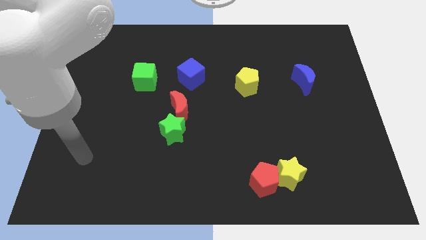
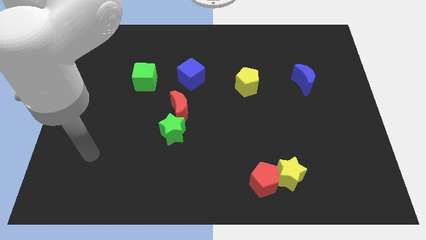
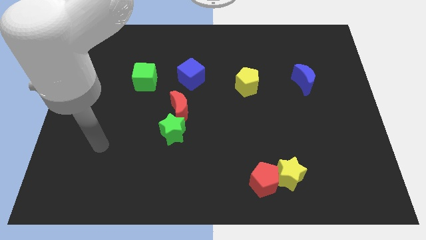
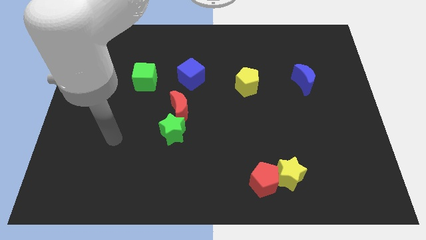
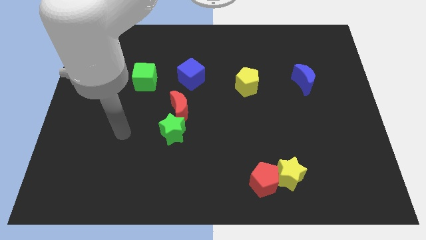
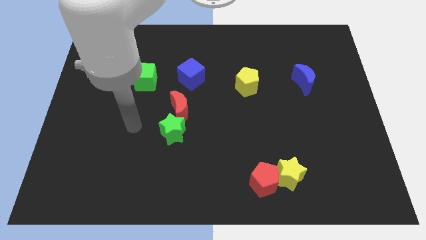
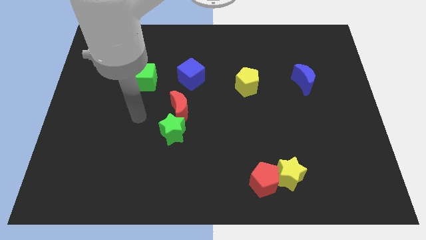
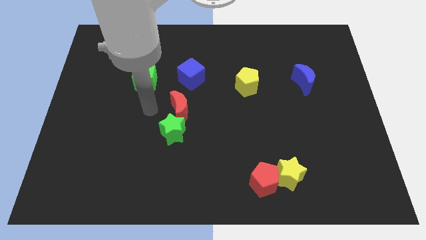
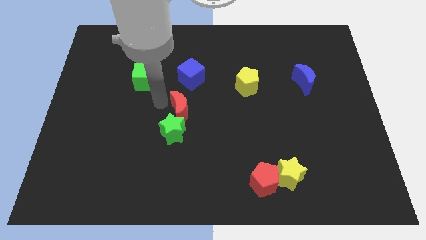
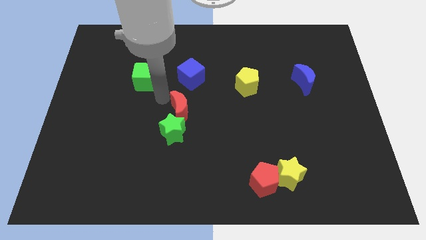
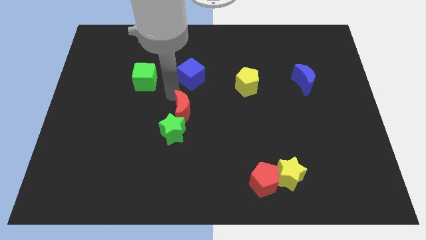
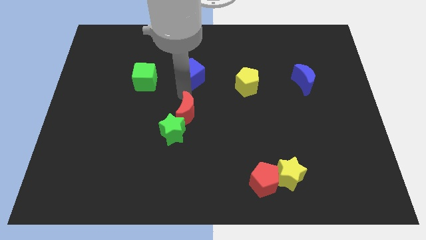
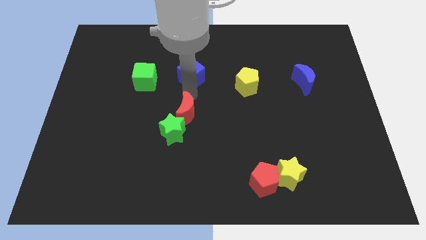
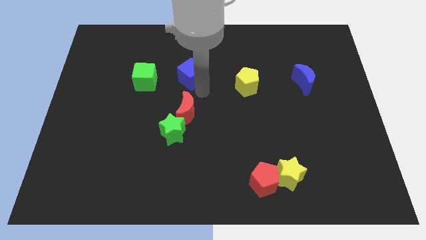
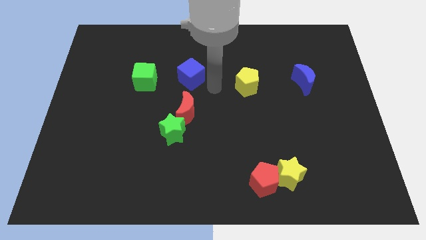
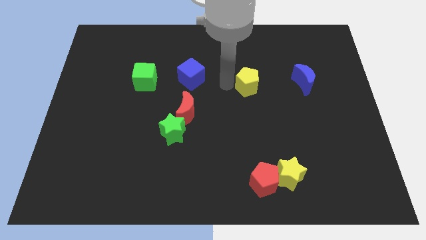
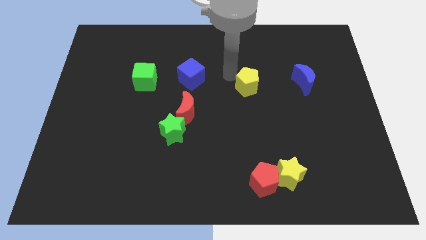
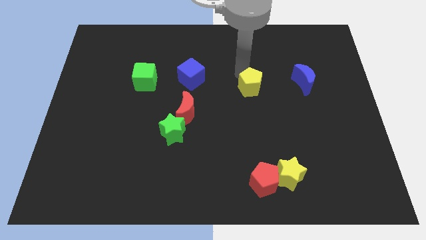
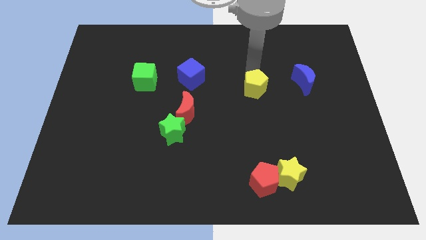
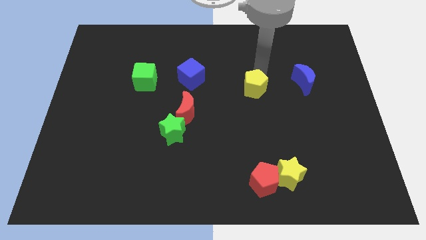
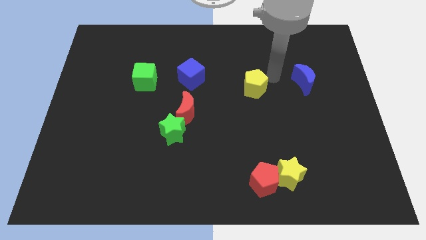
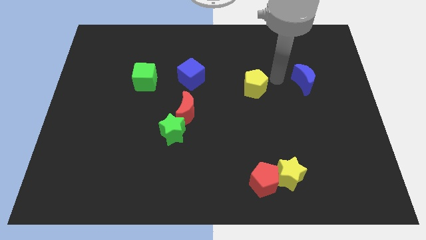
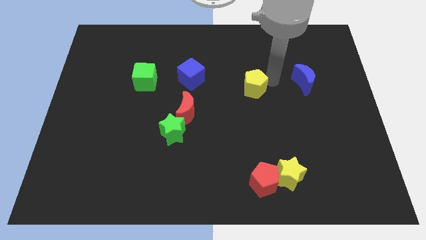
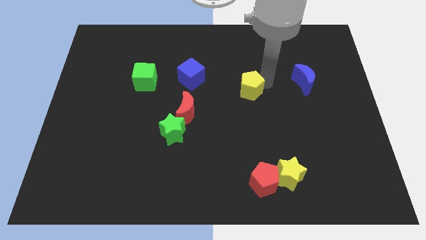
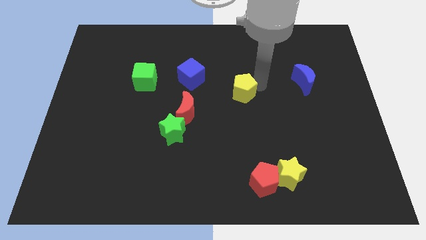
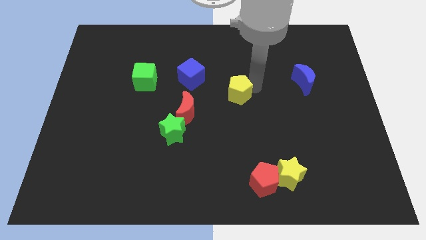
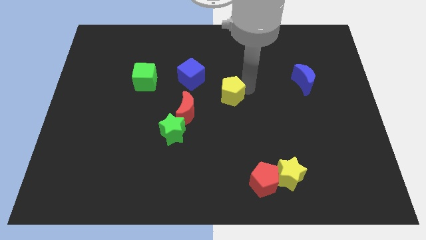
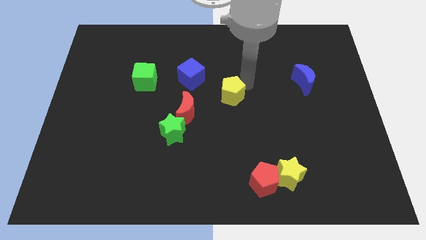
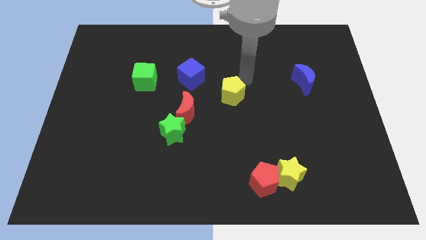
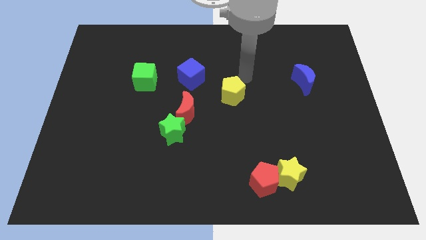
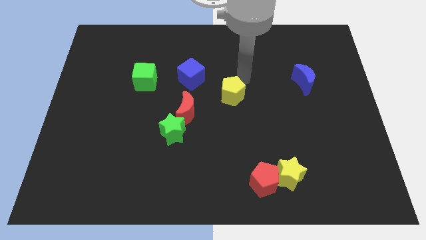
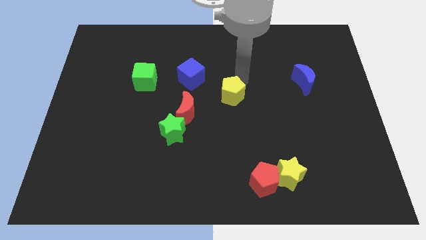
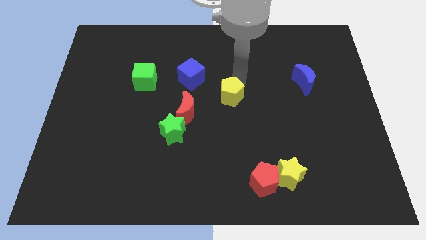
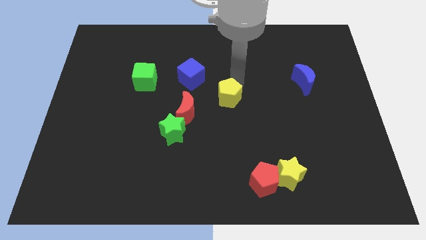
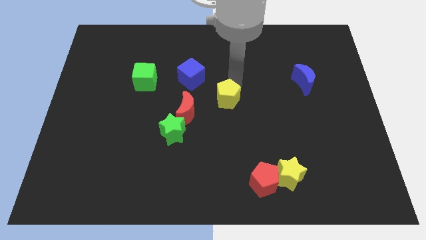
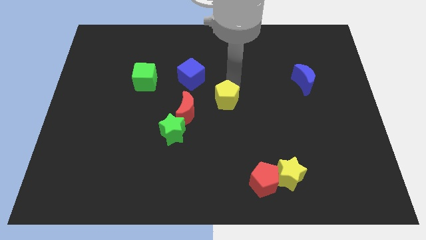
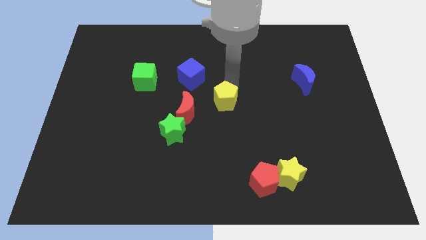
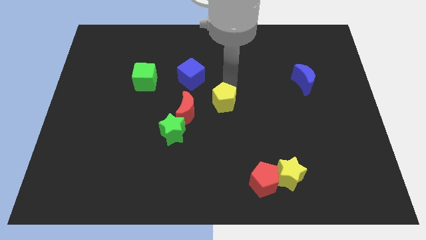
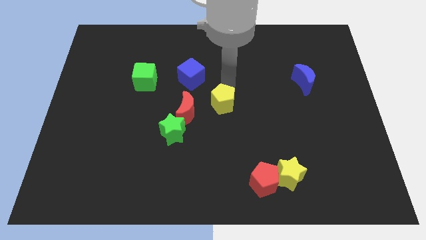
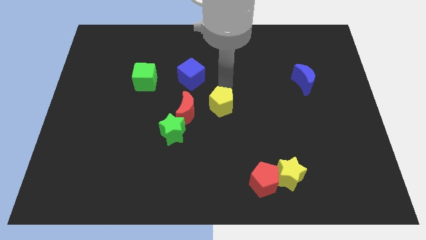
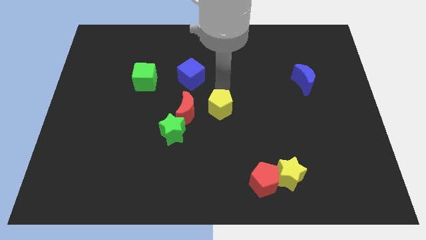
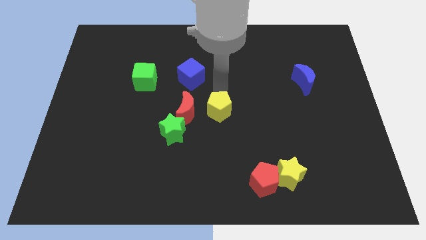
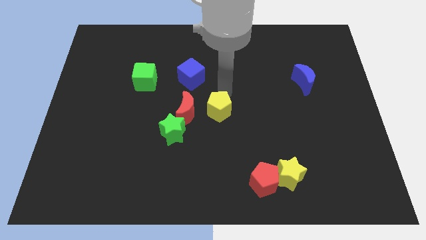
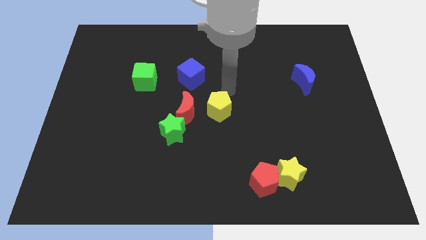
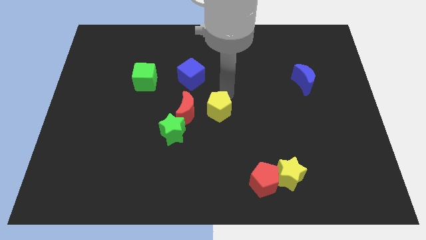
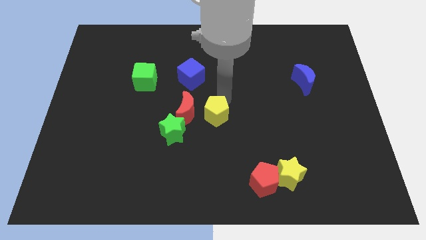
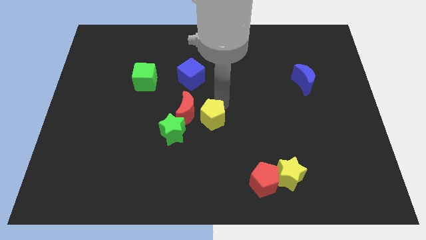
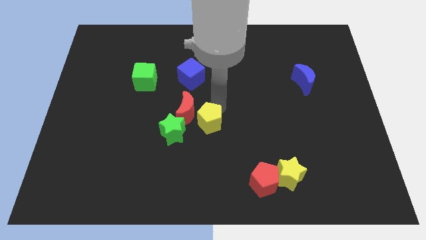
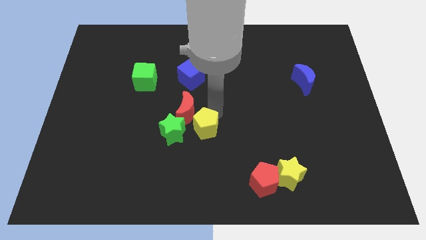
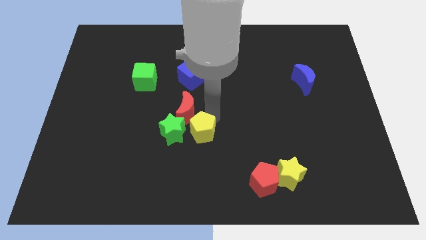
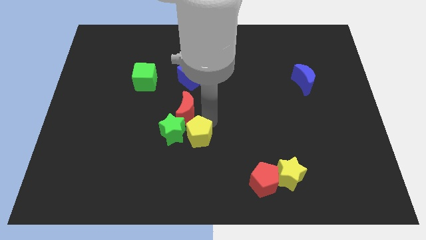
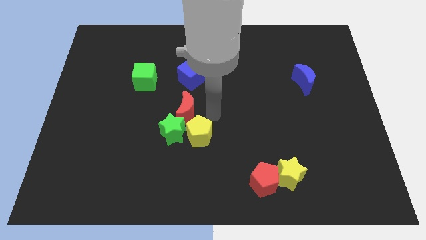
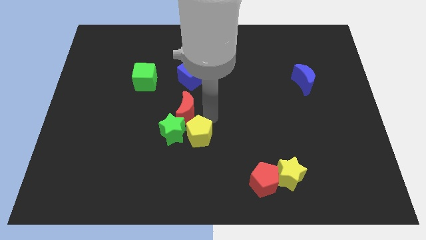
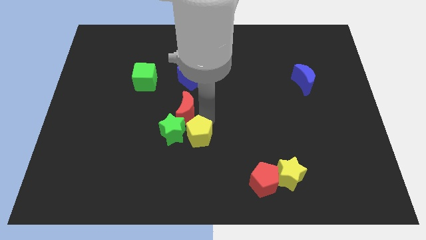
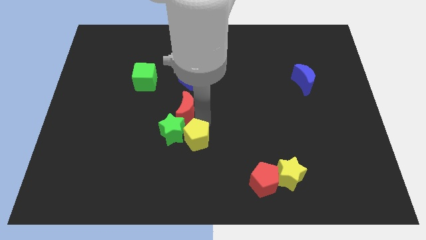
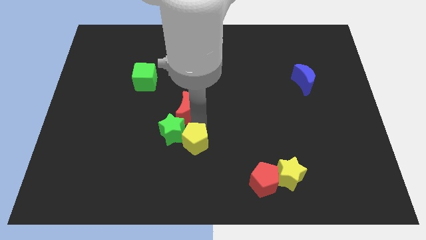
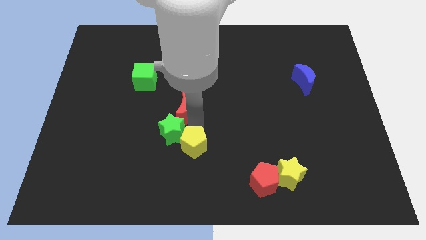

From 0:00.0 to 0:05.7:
move the yellow pentagon below the green star

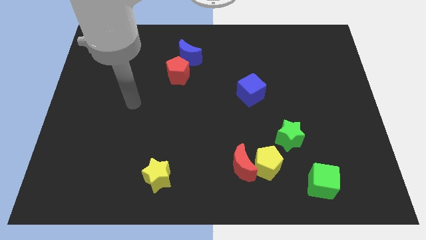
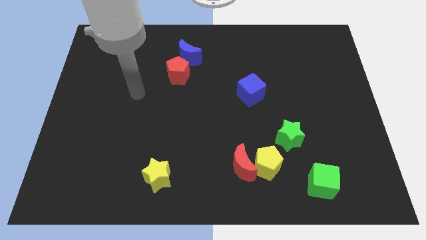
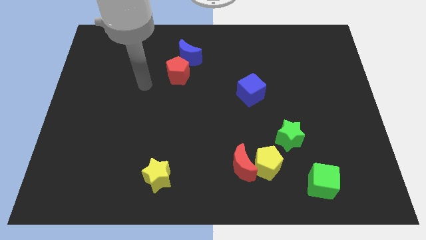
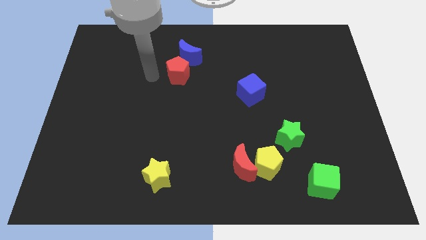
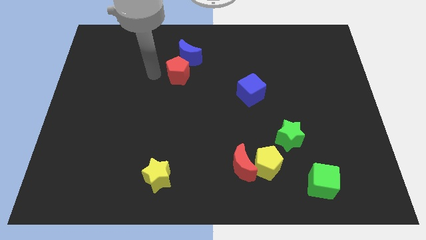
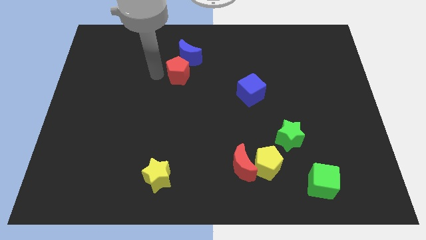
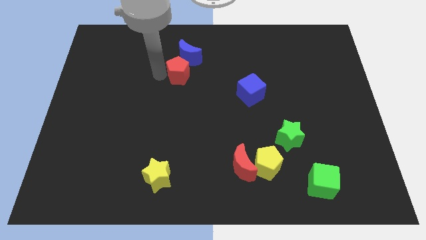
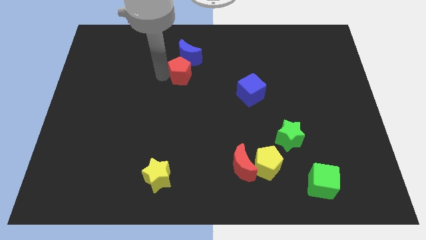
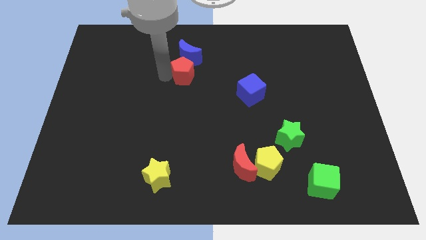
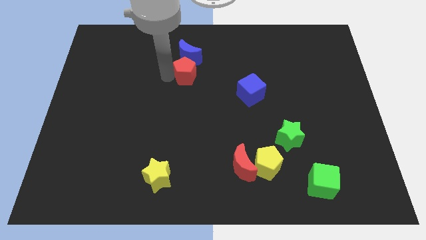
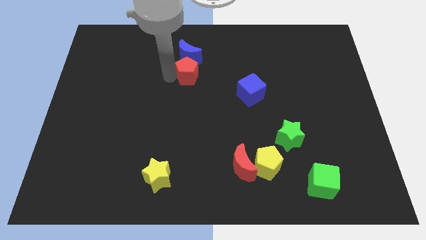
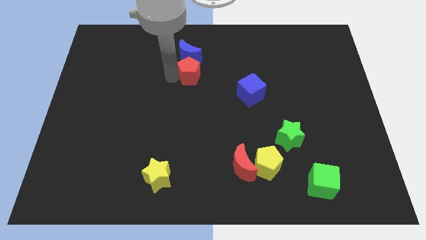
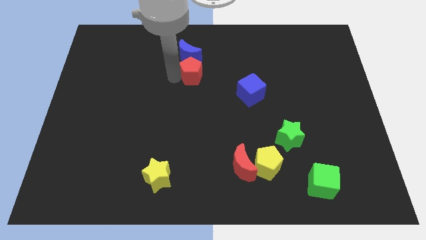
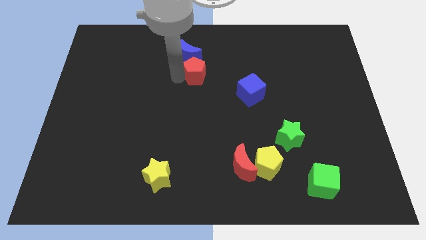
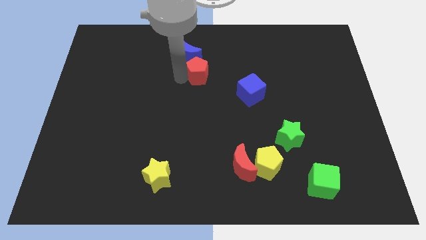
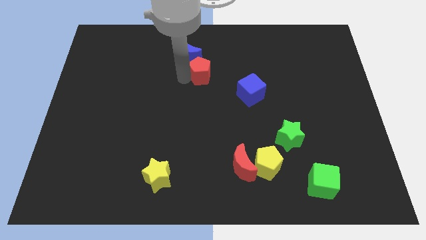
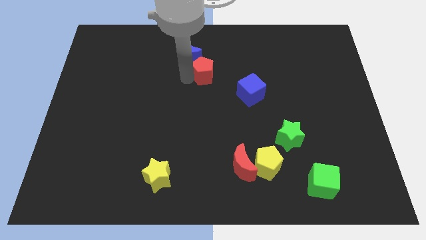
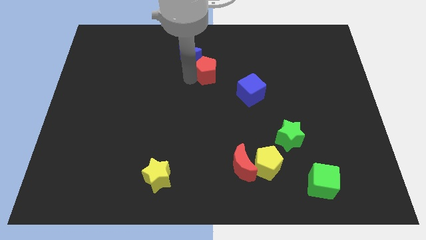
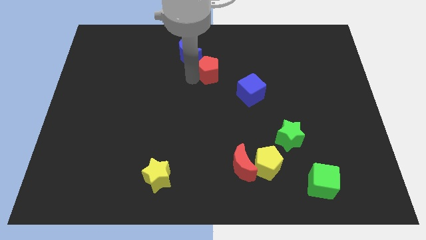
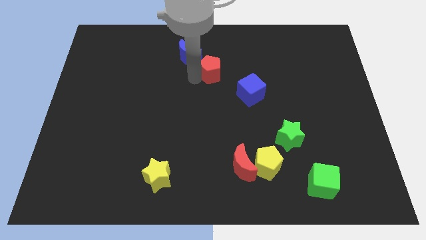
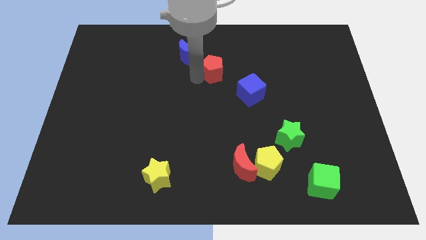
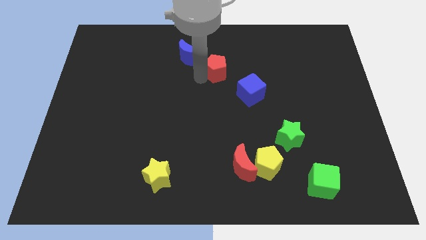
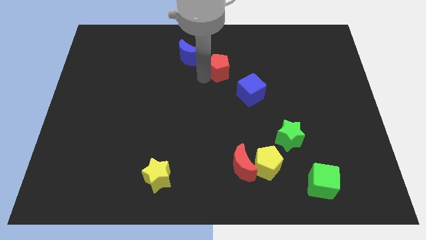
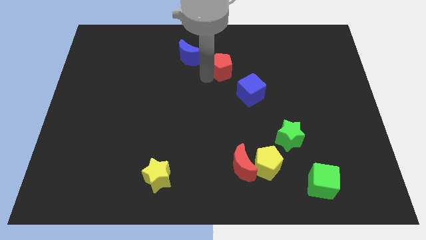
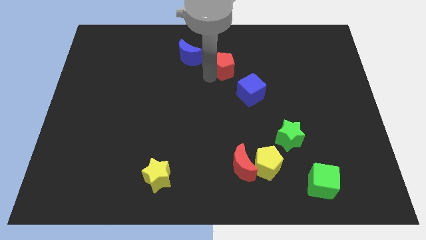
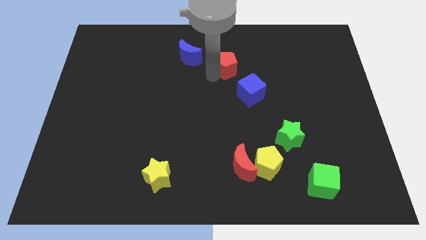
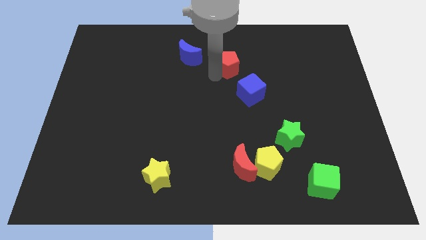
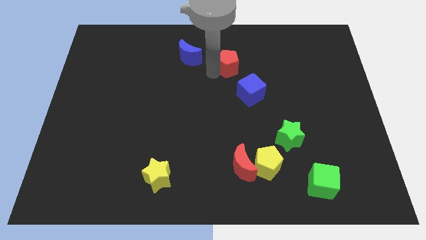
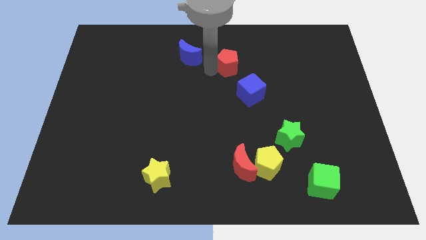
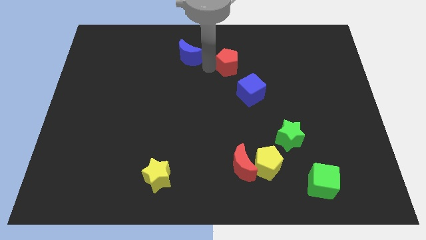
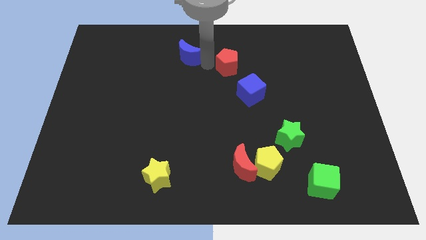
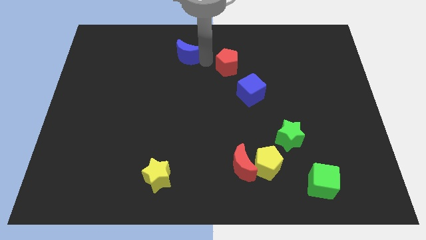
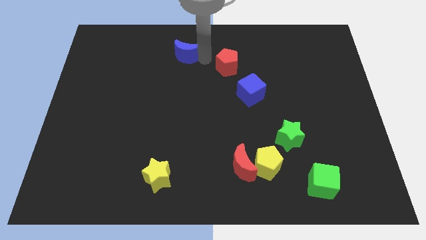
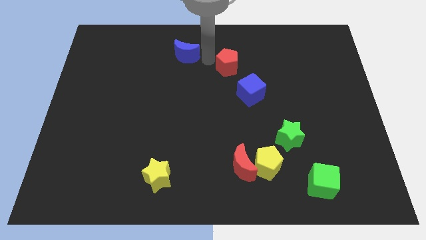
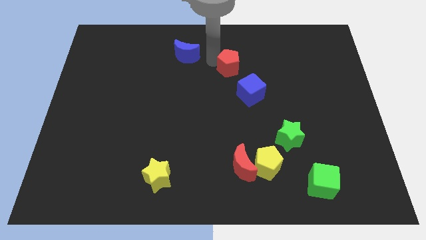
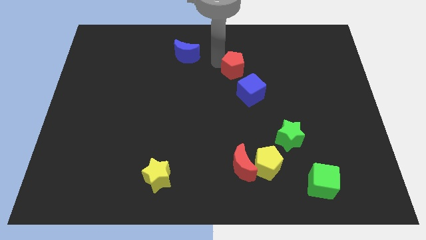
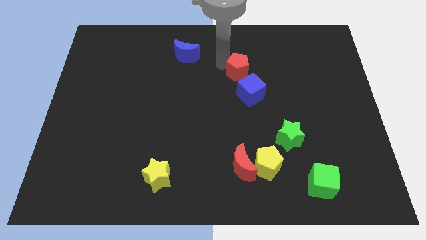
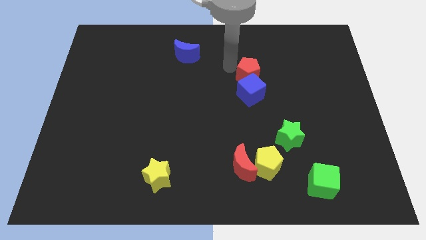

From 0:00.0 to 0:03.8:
push the red pentagon diagonally up and to the right of the blue cube
